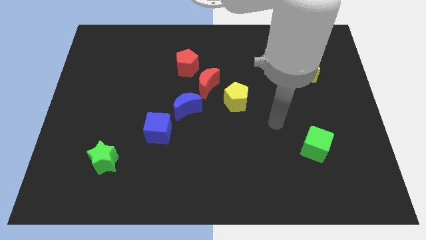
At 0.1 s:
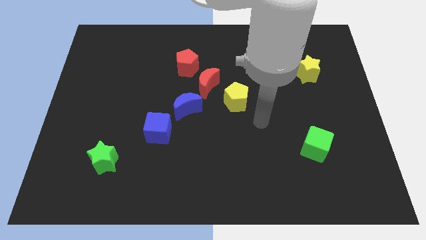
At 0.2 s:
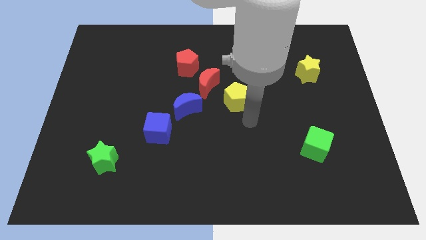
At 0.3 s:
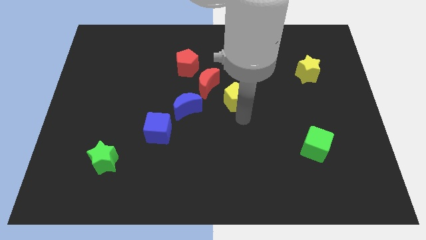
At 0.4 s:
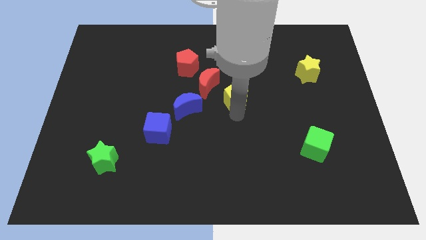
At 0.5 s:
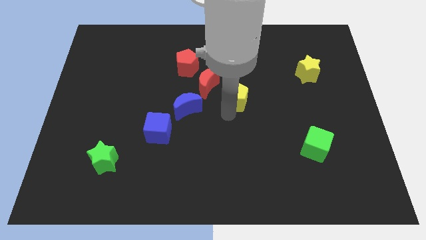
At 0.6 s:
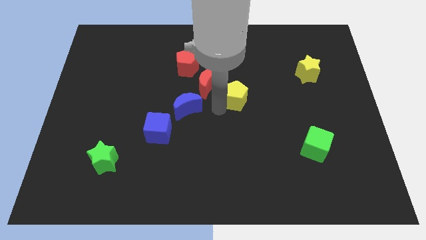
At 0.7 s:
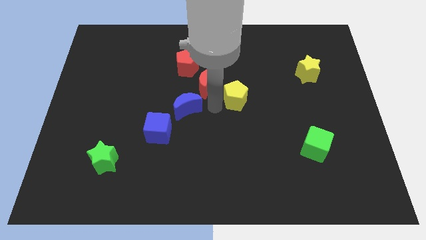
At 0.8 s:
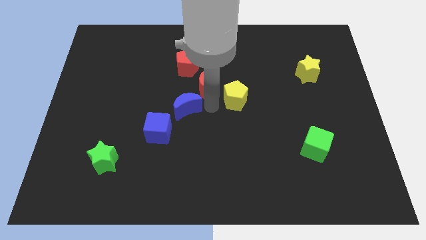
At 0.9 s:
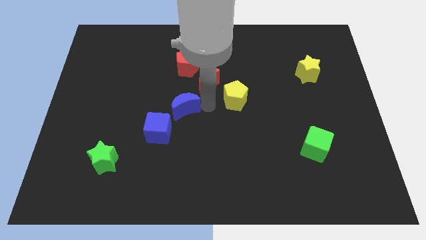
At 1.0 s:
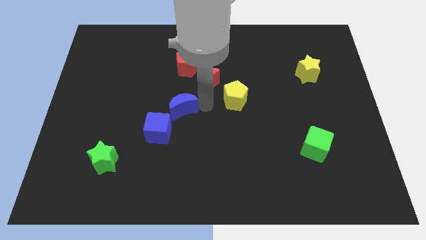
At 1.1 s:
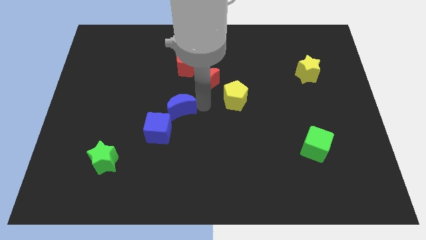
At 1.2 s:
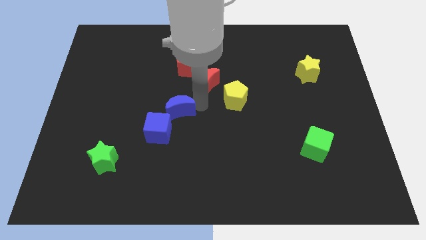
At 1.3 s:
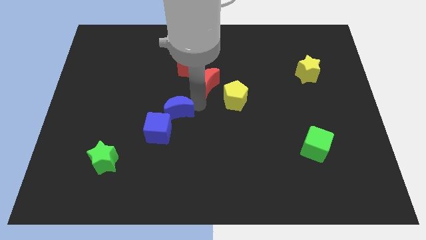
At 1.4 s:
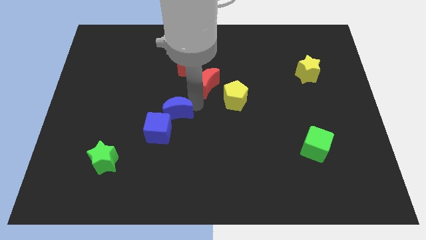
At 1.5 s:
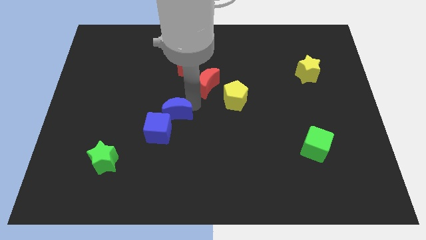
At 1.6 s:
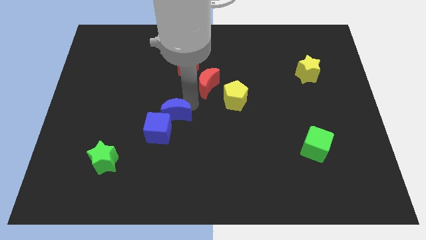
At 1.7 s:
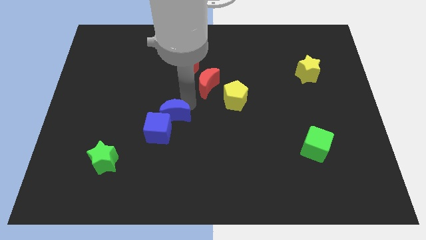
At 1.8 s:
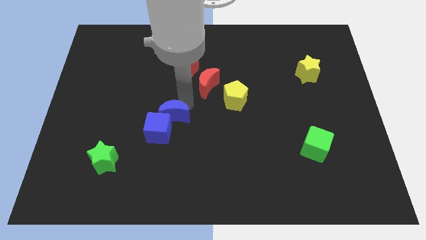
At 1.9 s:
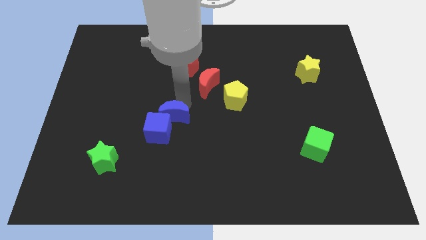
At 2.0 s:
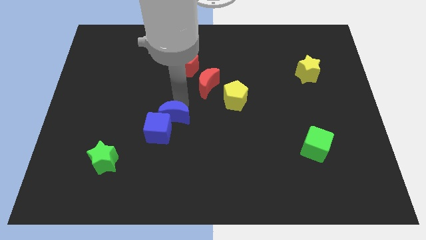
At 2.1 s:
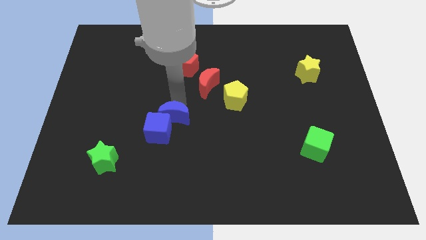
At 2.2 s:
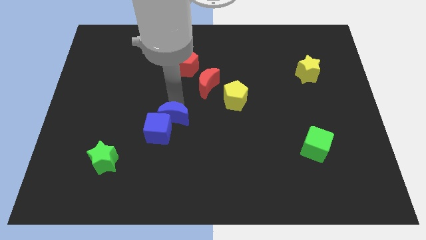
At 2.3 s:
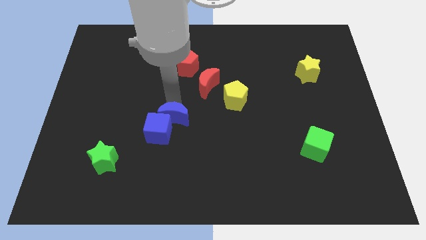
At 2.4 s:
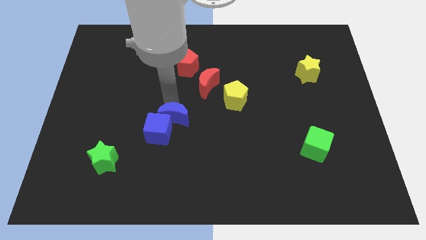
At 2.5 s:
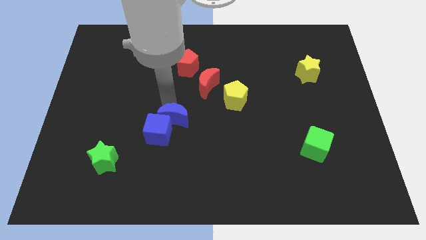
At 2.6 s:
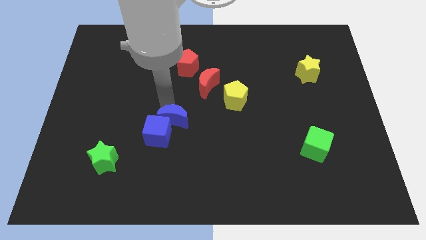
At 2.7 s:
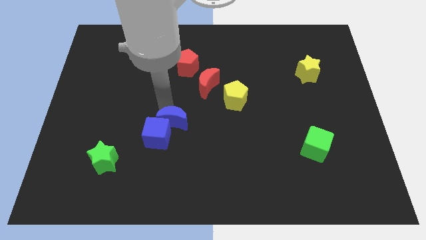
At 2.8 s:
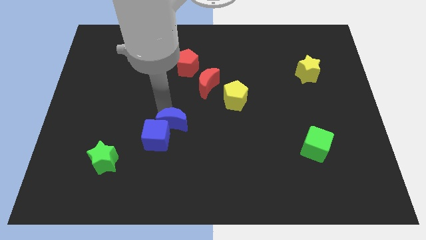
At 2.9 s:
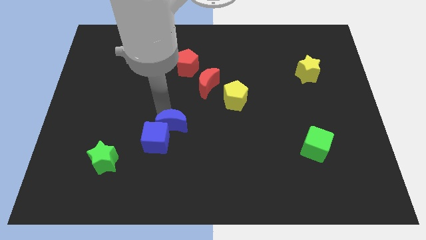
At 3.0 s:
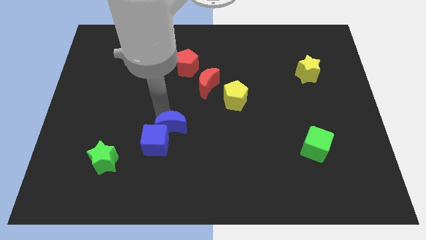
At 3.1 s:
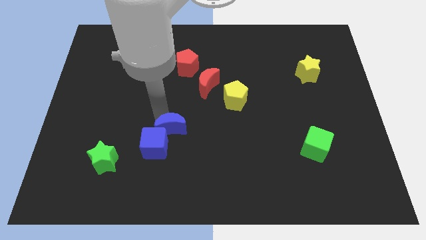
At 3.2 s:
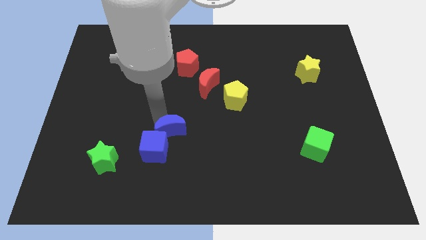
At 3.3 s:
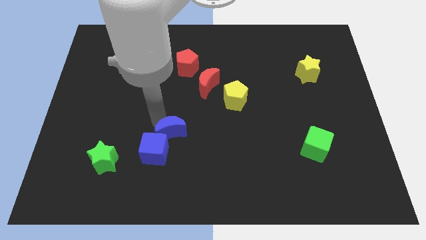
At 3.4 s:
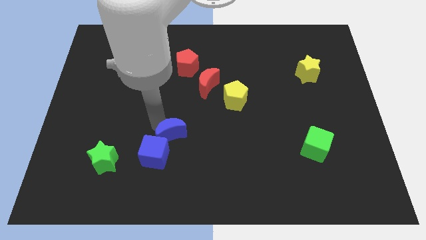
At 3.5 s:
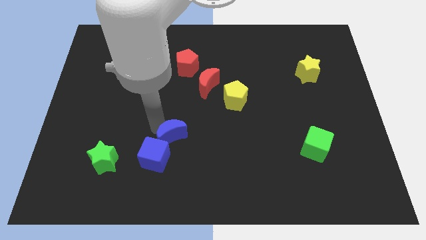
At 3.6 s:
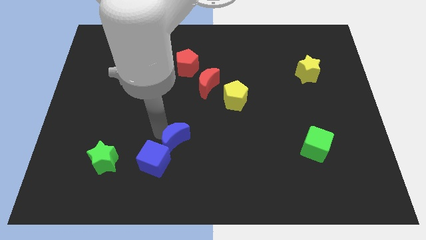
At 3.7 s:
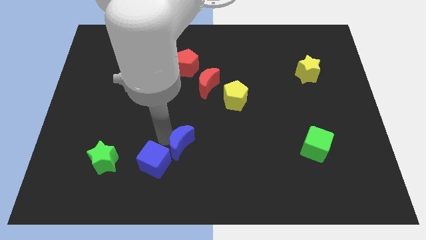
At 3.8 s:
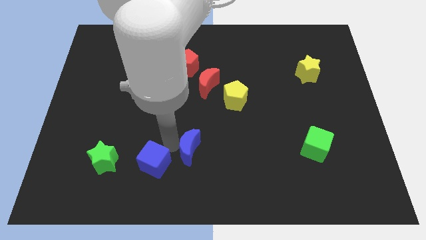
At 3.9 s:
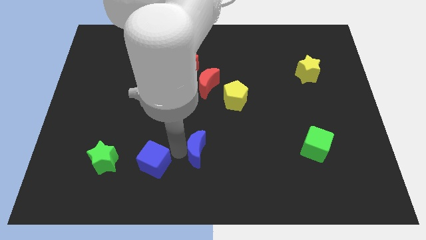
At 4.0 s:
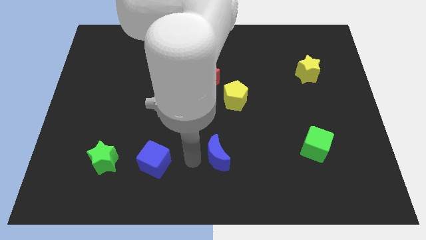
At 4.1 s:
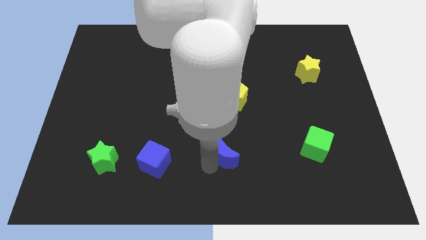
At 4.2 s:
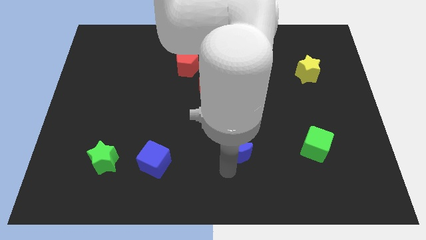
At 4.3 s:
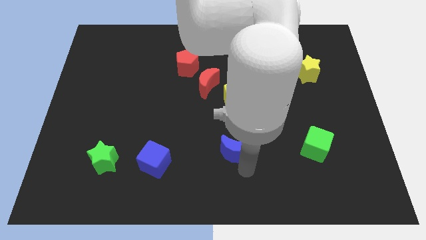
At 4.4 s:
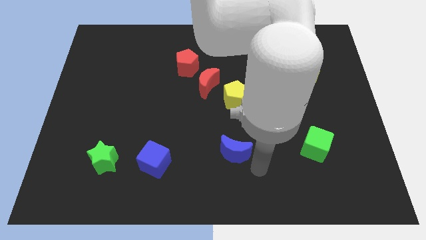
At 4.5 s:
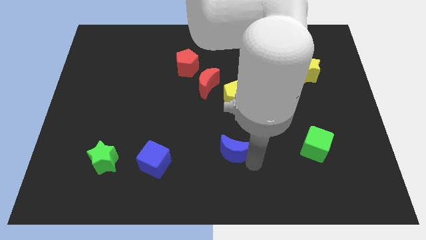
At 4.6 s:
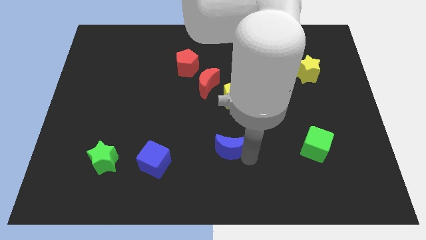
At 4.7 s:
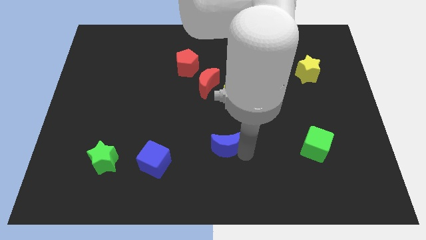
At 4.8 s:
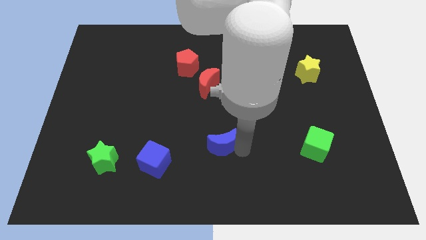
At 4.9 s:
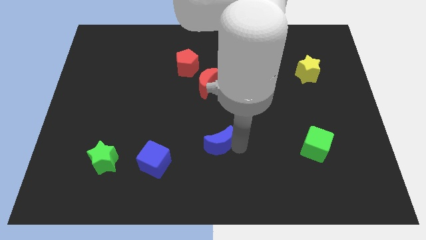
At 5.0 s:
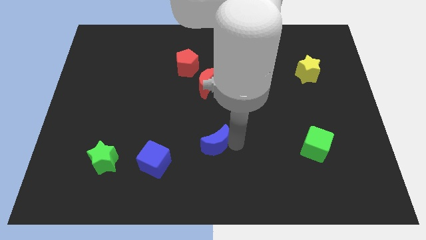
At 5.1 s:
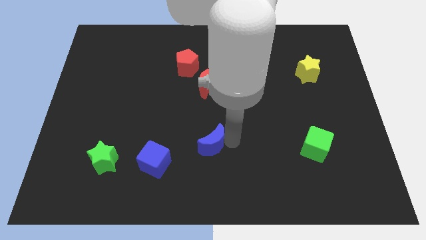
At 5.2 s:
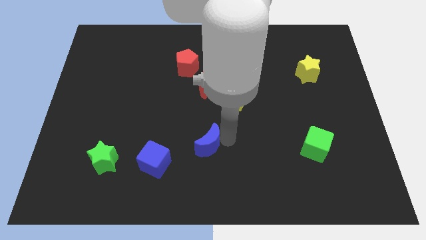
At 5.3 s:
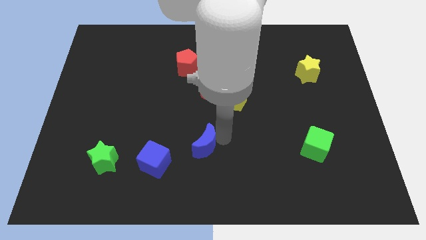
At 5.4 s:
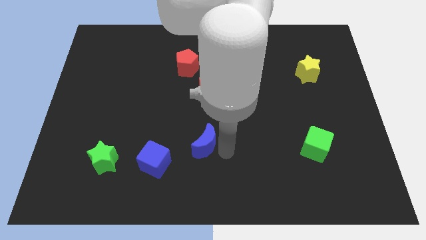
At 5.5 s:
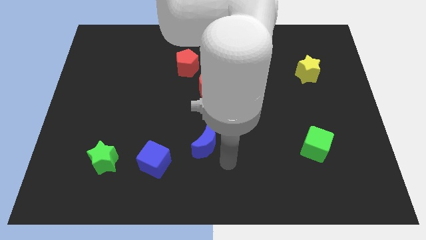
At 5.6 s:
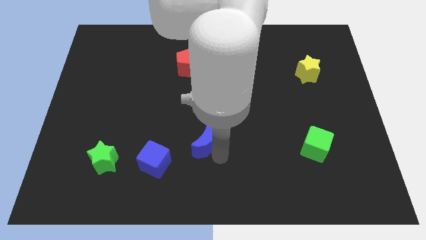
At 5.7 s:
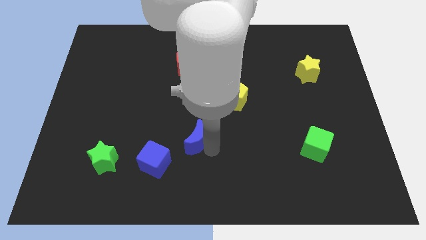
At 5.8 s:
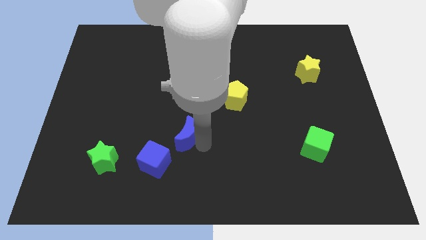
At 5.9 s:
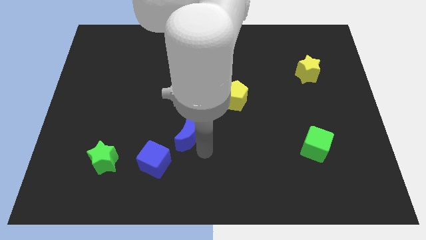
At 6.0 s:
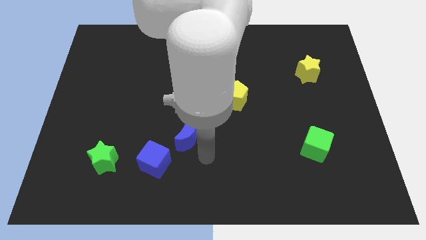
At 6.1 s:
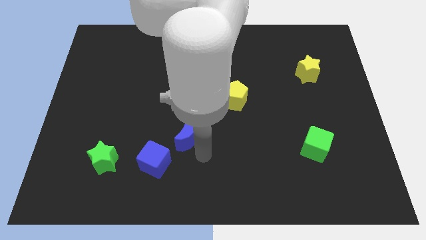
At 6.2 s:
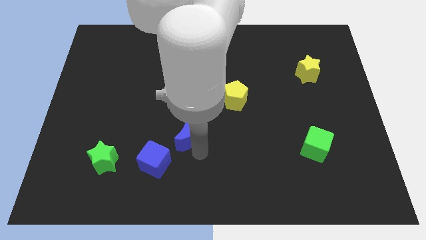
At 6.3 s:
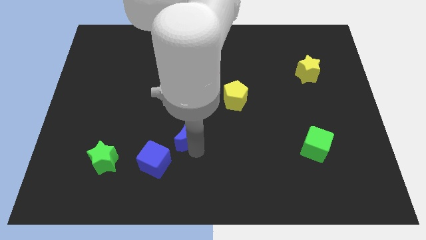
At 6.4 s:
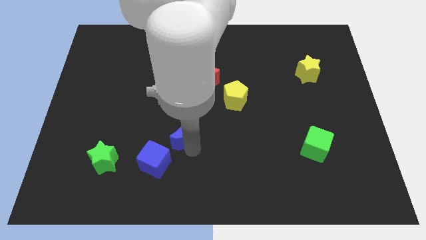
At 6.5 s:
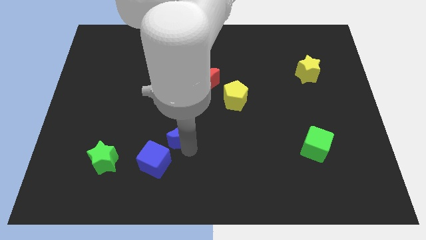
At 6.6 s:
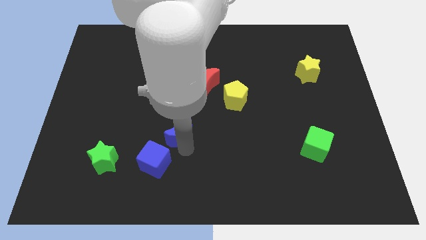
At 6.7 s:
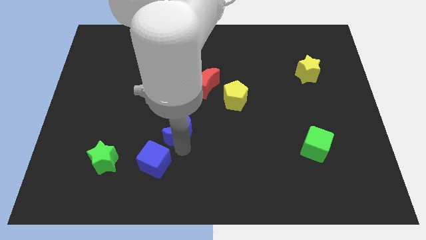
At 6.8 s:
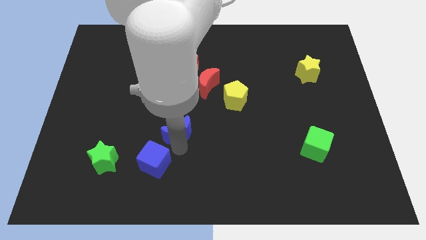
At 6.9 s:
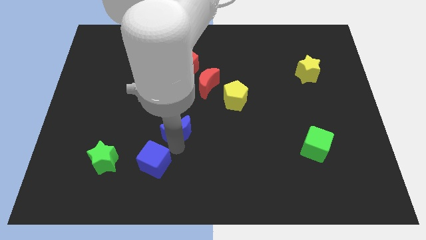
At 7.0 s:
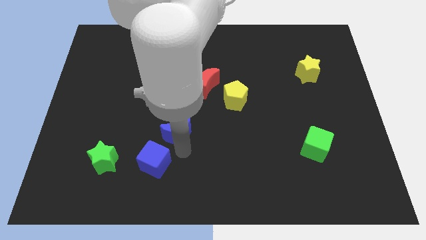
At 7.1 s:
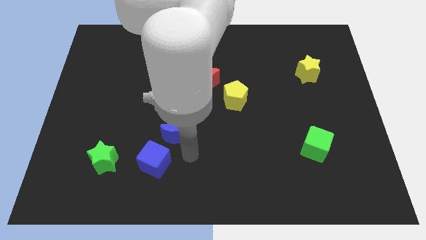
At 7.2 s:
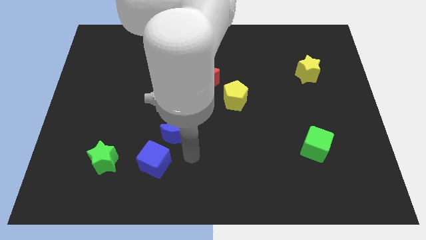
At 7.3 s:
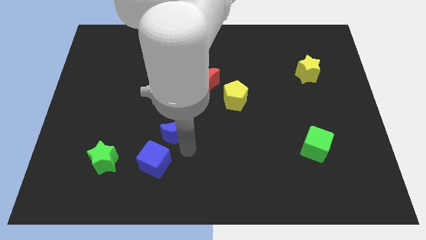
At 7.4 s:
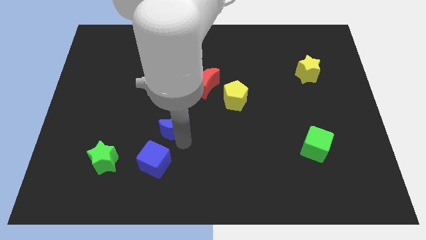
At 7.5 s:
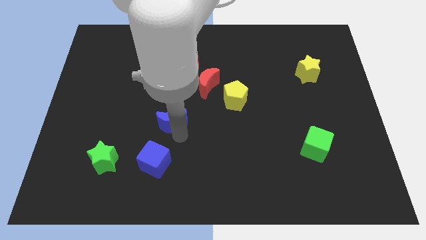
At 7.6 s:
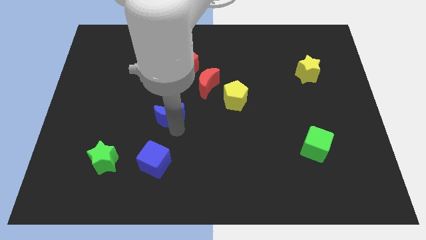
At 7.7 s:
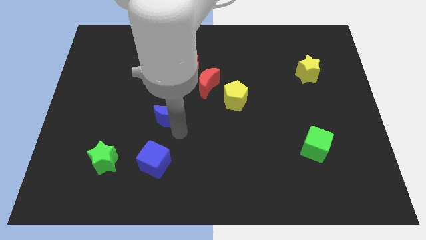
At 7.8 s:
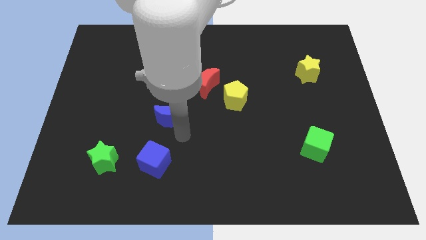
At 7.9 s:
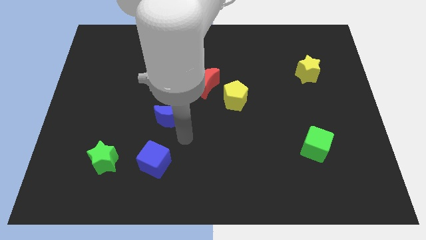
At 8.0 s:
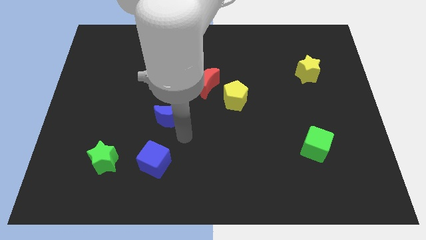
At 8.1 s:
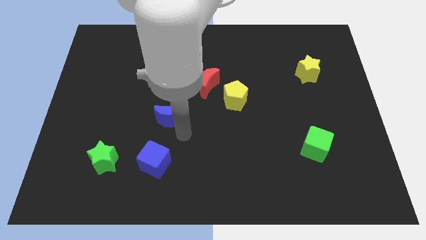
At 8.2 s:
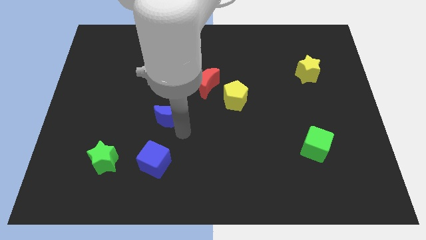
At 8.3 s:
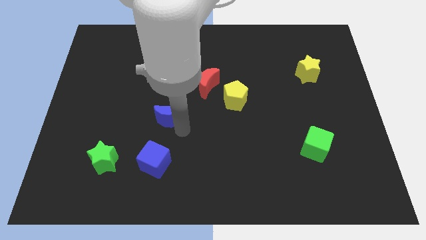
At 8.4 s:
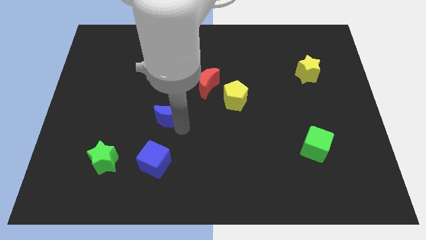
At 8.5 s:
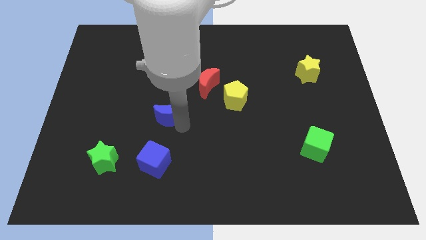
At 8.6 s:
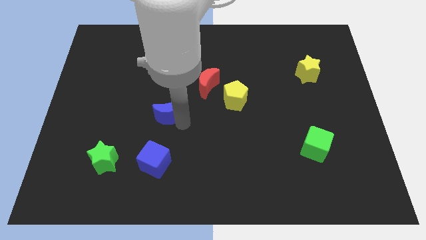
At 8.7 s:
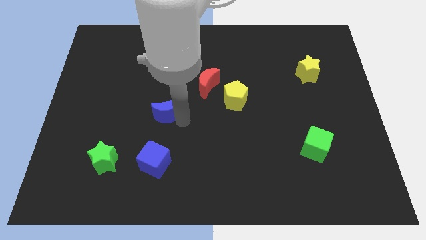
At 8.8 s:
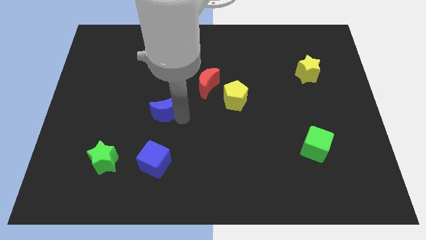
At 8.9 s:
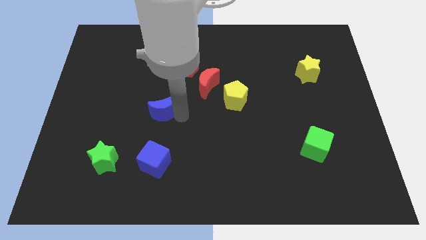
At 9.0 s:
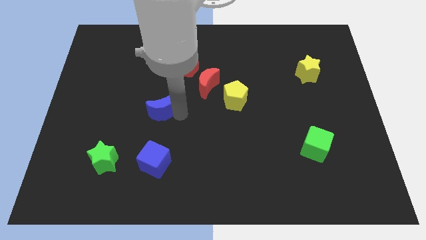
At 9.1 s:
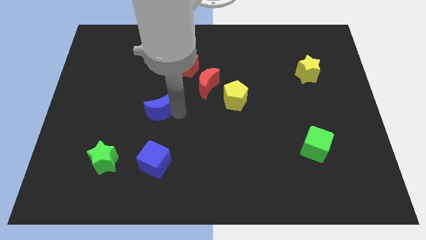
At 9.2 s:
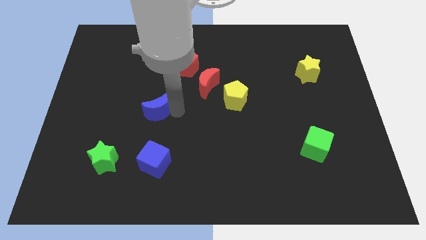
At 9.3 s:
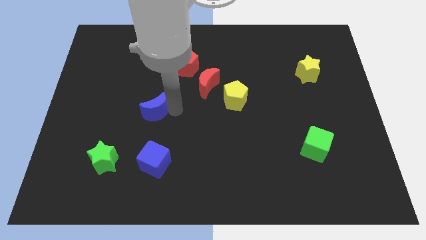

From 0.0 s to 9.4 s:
move the blue moon left a bit
